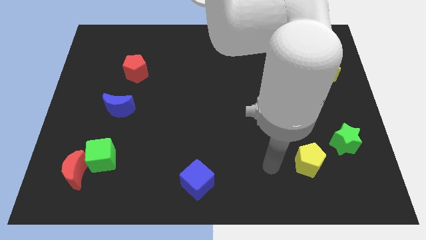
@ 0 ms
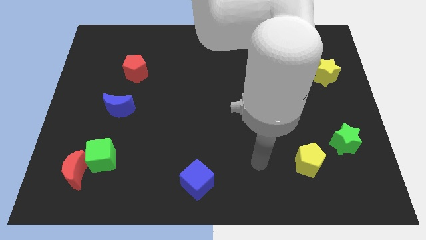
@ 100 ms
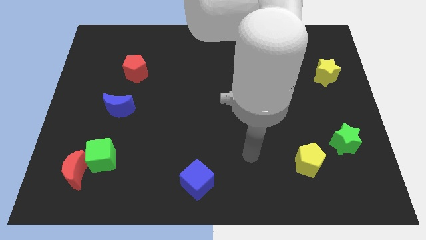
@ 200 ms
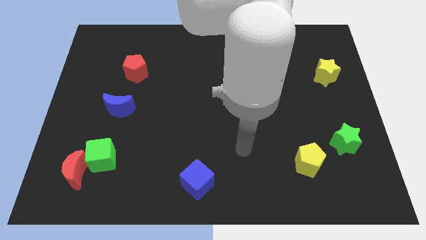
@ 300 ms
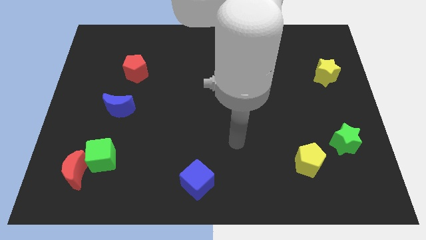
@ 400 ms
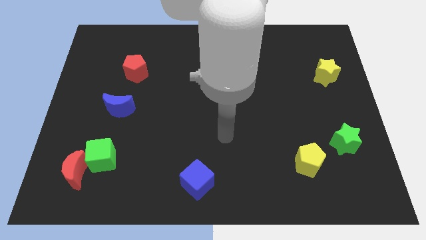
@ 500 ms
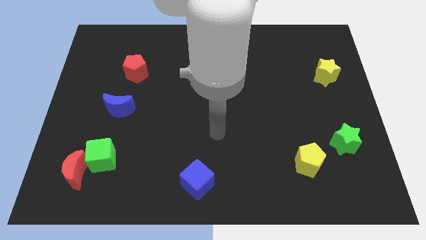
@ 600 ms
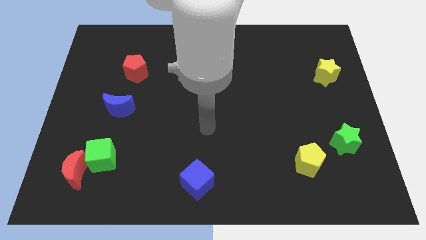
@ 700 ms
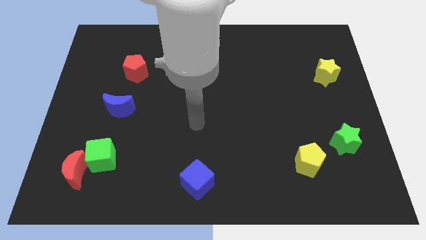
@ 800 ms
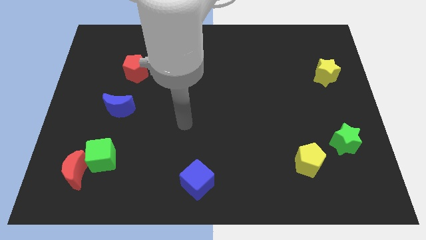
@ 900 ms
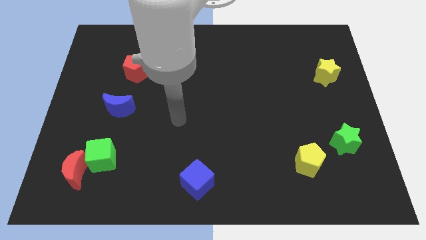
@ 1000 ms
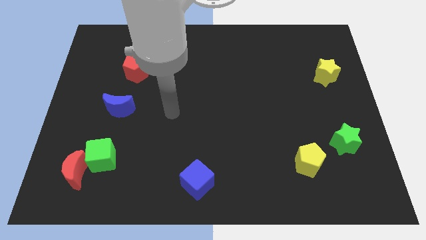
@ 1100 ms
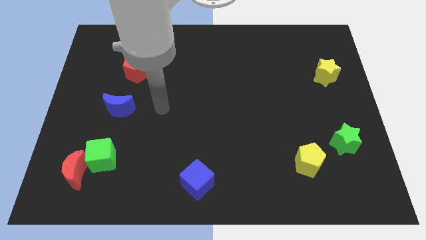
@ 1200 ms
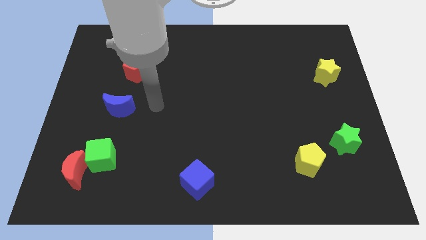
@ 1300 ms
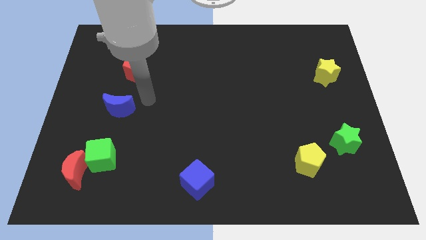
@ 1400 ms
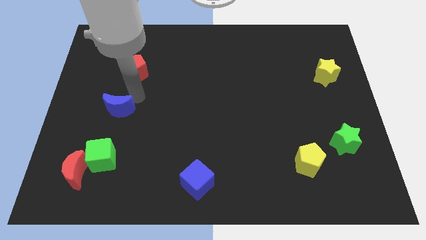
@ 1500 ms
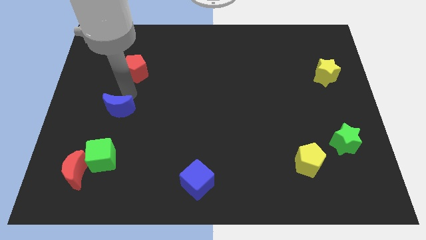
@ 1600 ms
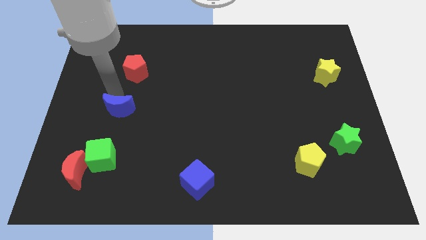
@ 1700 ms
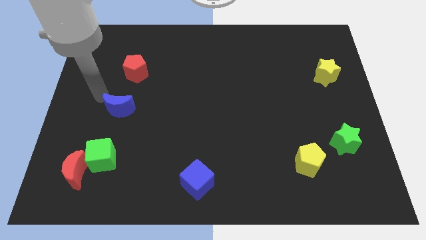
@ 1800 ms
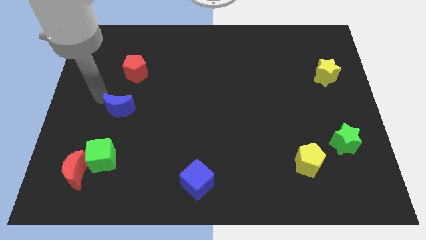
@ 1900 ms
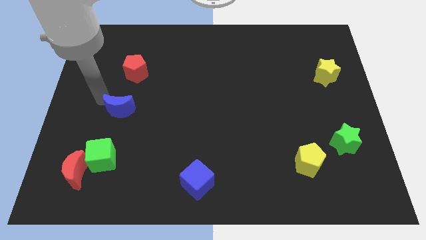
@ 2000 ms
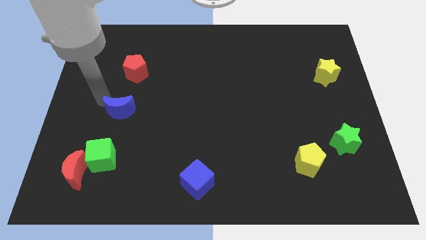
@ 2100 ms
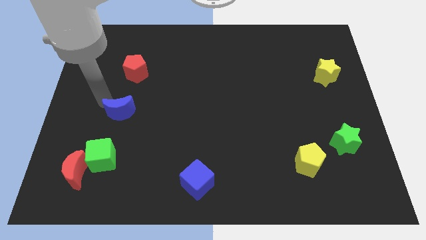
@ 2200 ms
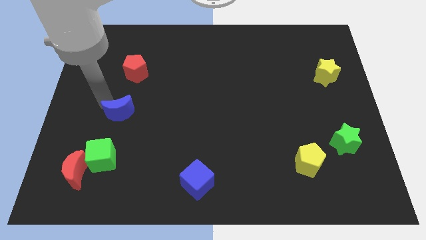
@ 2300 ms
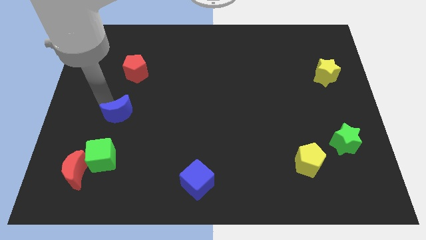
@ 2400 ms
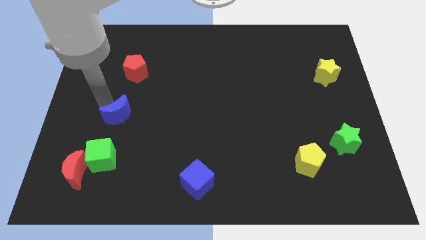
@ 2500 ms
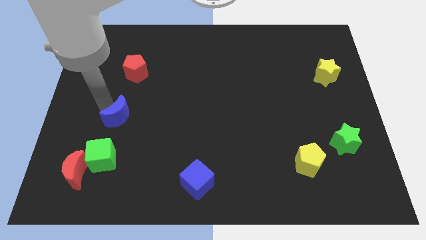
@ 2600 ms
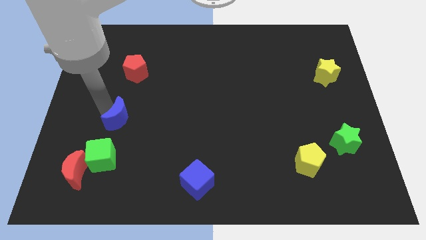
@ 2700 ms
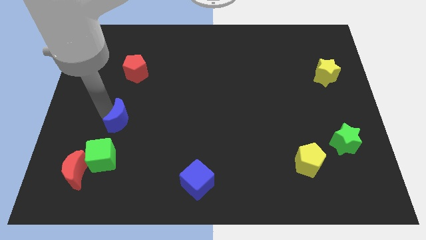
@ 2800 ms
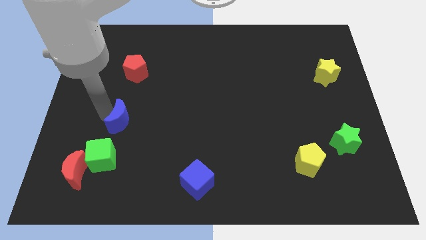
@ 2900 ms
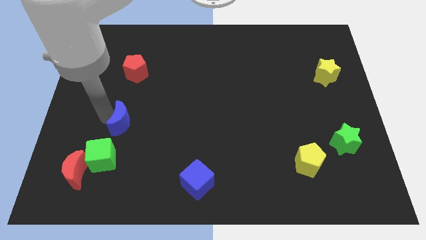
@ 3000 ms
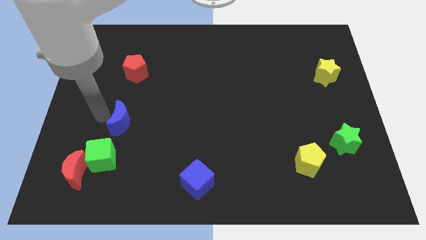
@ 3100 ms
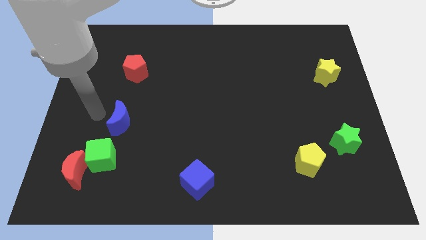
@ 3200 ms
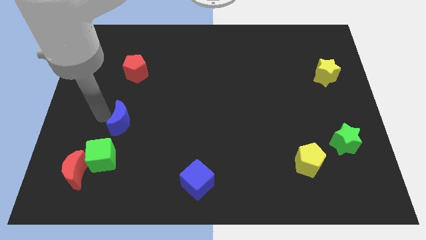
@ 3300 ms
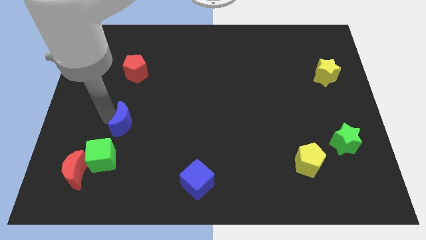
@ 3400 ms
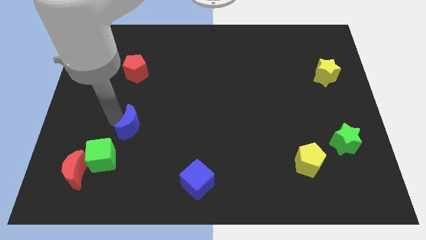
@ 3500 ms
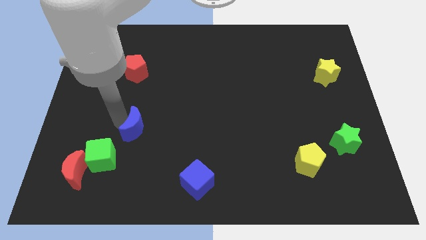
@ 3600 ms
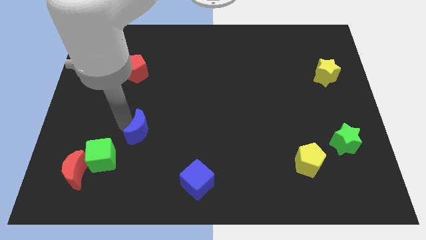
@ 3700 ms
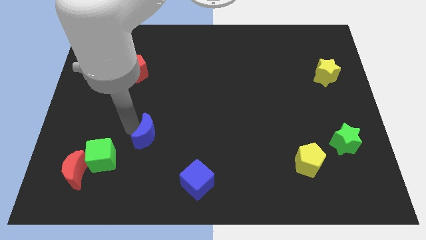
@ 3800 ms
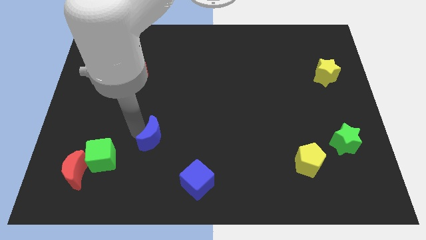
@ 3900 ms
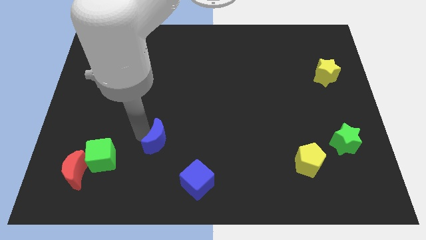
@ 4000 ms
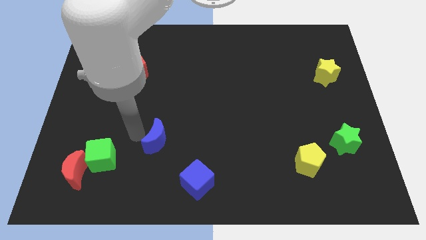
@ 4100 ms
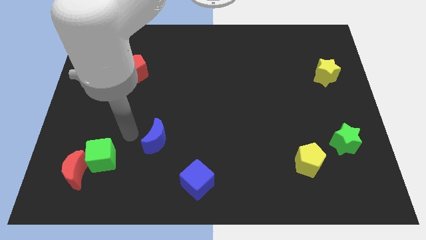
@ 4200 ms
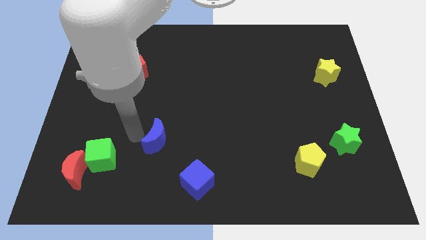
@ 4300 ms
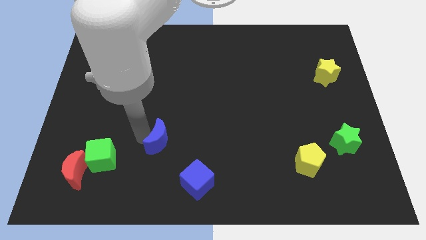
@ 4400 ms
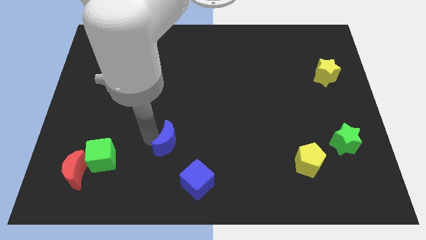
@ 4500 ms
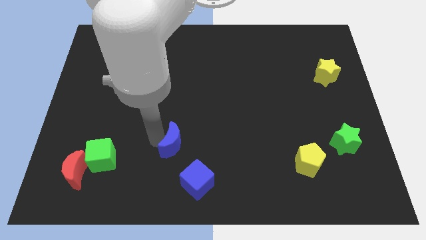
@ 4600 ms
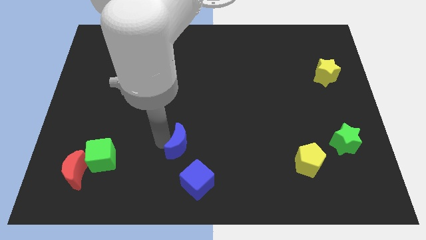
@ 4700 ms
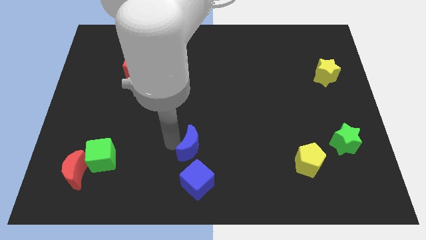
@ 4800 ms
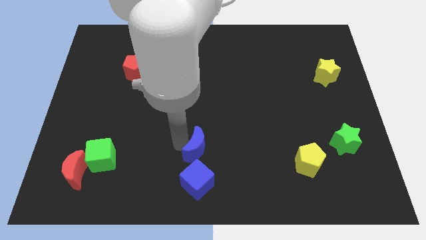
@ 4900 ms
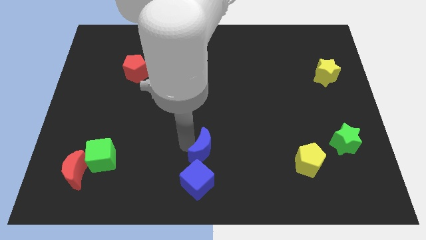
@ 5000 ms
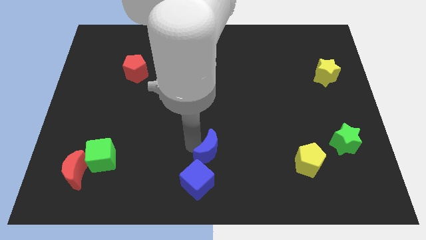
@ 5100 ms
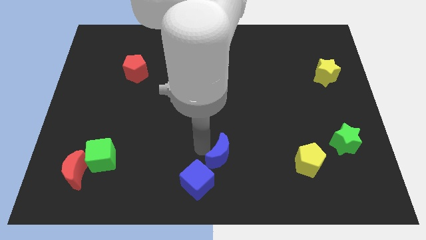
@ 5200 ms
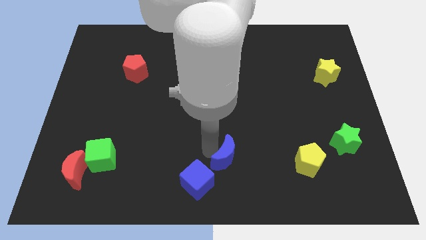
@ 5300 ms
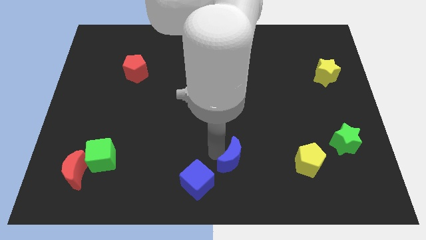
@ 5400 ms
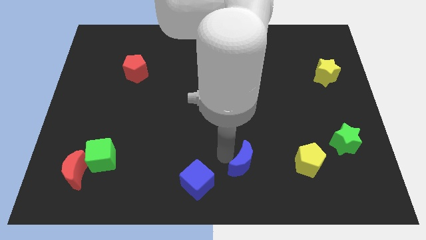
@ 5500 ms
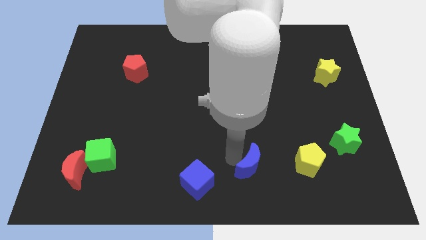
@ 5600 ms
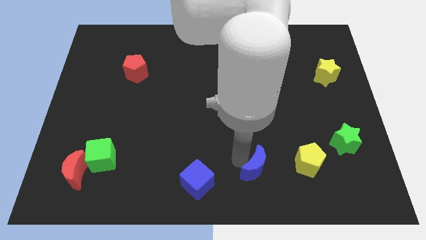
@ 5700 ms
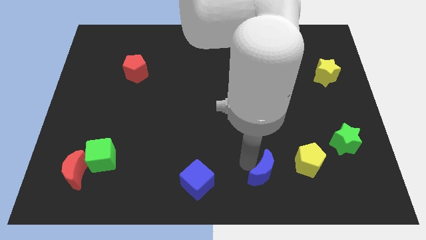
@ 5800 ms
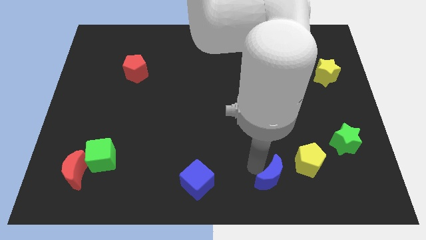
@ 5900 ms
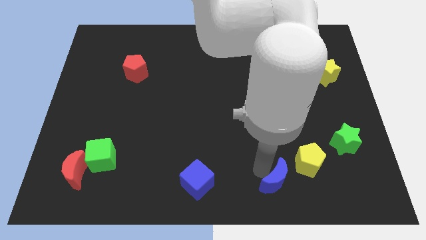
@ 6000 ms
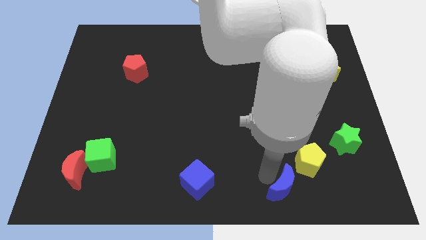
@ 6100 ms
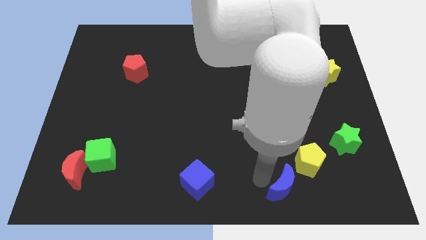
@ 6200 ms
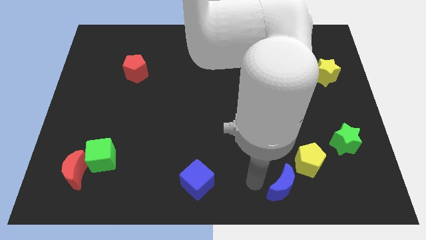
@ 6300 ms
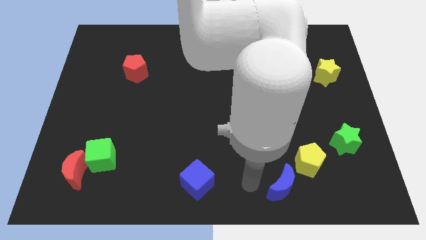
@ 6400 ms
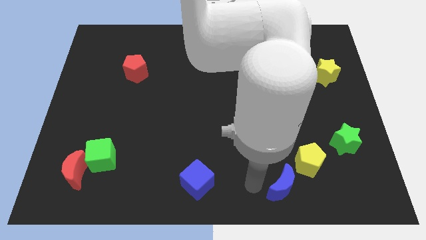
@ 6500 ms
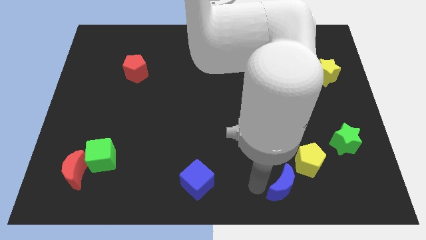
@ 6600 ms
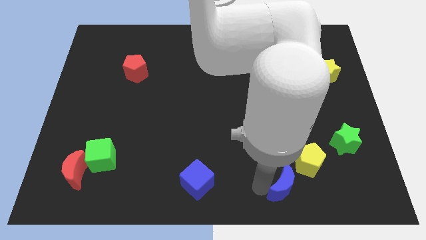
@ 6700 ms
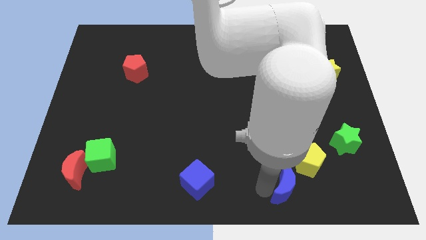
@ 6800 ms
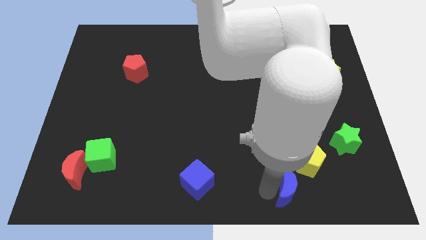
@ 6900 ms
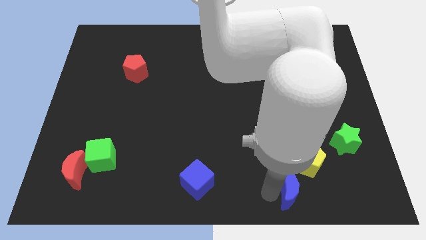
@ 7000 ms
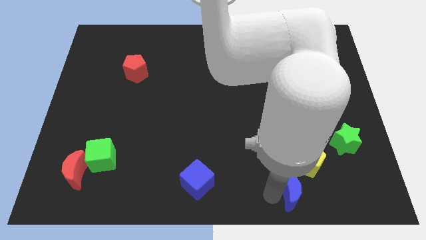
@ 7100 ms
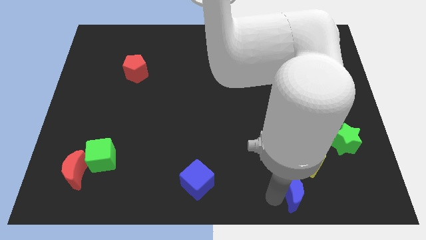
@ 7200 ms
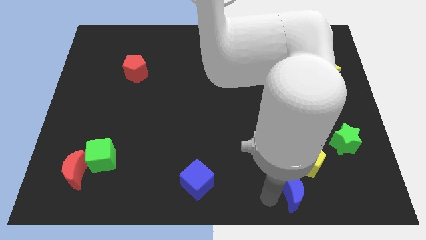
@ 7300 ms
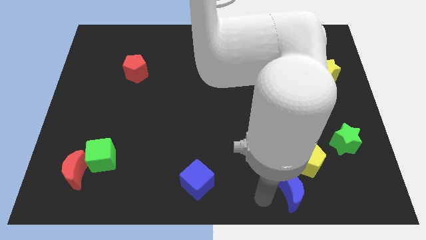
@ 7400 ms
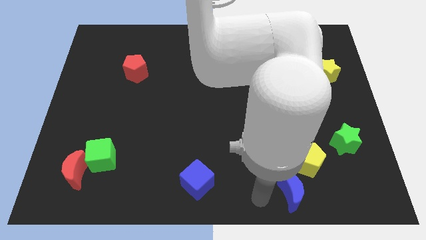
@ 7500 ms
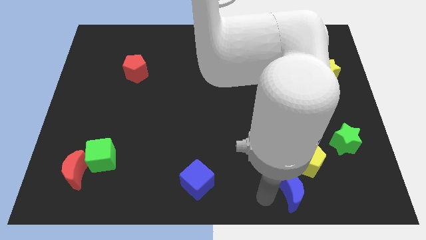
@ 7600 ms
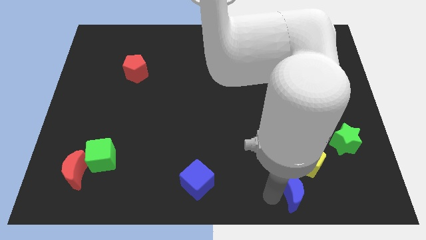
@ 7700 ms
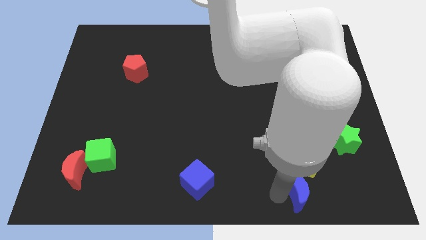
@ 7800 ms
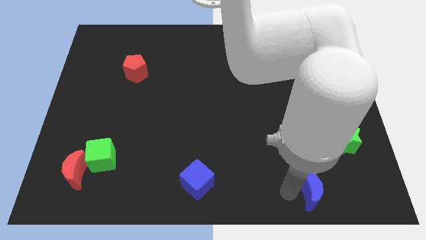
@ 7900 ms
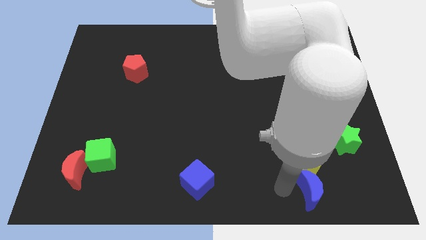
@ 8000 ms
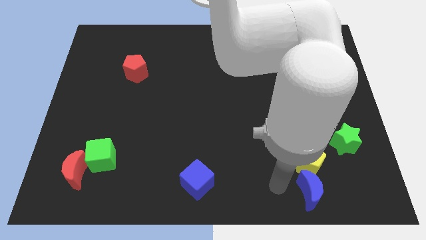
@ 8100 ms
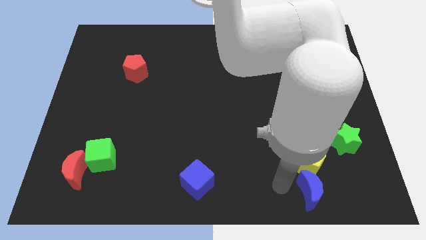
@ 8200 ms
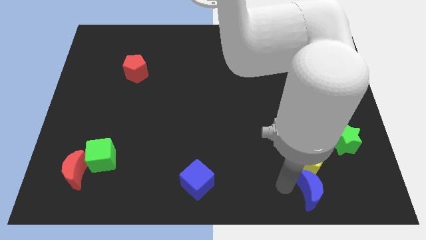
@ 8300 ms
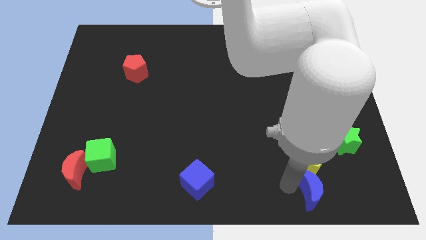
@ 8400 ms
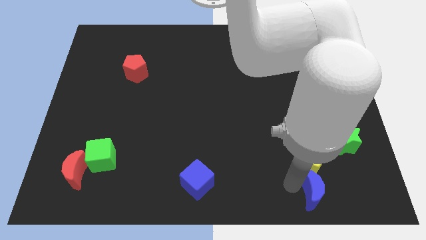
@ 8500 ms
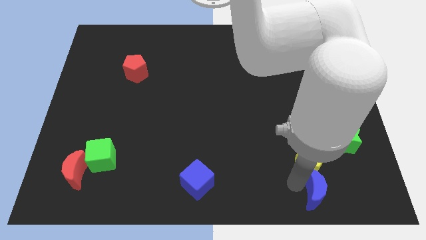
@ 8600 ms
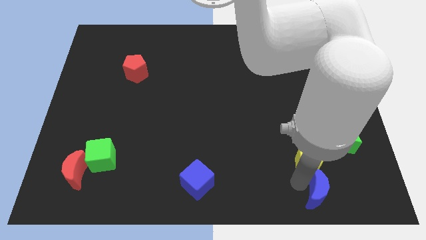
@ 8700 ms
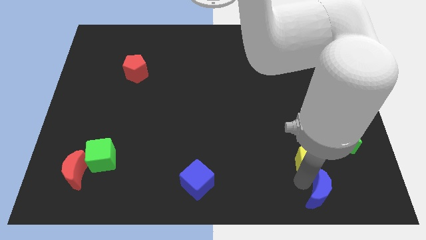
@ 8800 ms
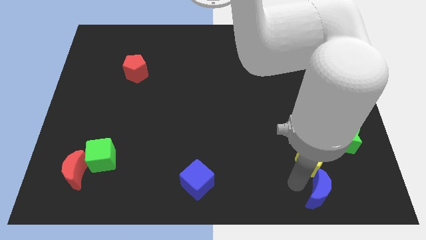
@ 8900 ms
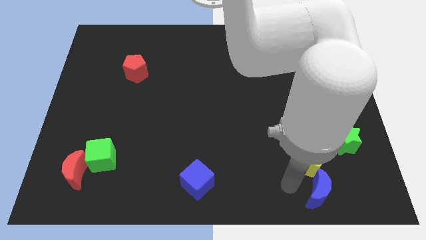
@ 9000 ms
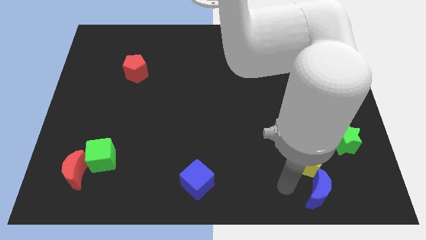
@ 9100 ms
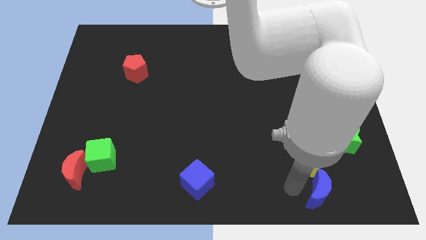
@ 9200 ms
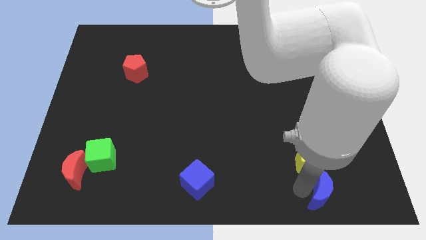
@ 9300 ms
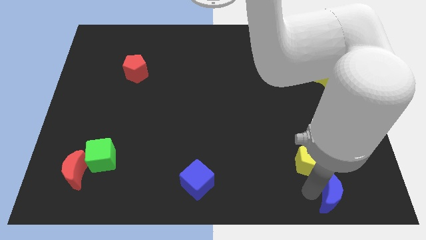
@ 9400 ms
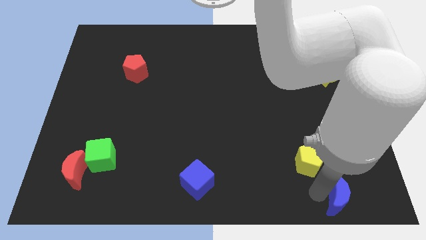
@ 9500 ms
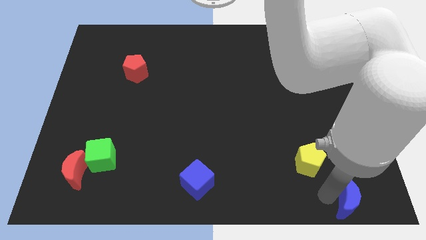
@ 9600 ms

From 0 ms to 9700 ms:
slide the blue moon to the bottom right
